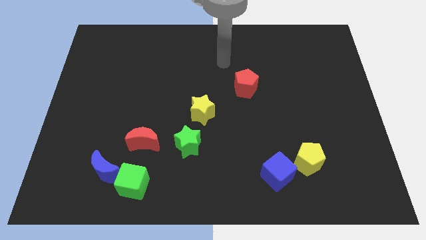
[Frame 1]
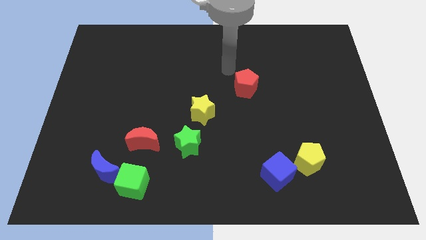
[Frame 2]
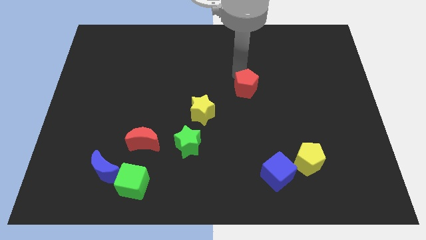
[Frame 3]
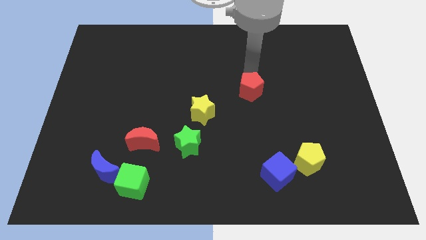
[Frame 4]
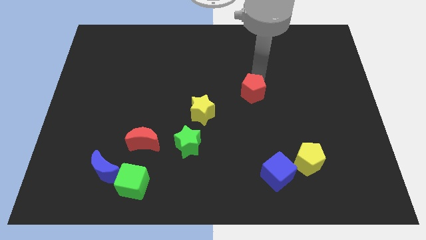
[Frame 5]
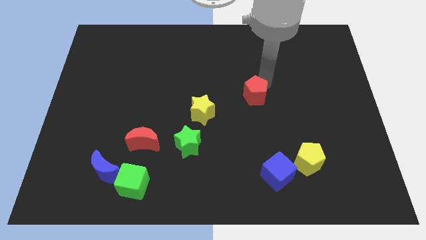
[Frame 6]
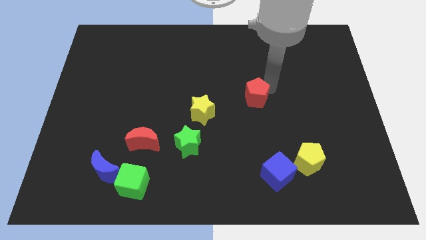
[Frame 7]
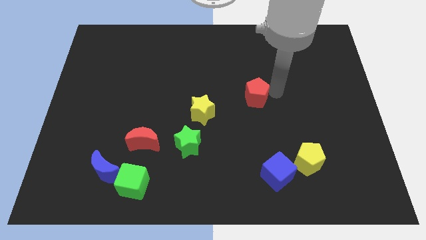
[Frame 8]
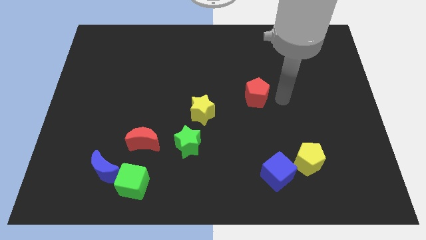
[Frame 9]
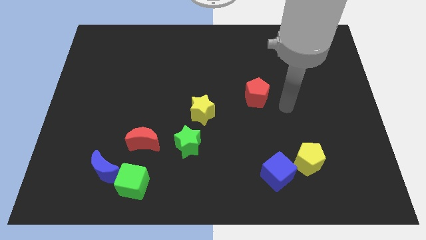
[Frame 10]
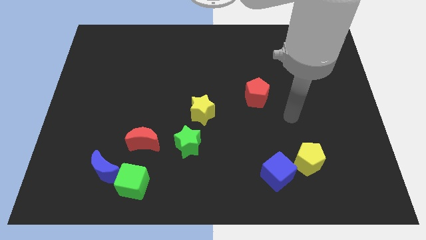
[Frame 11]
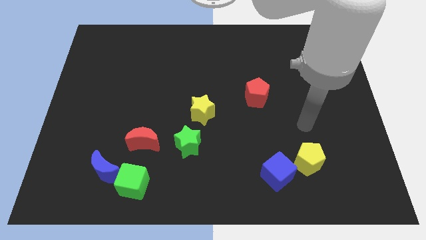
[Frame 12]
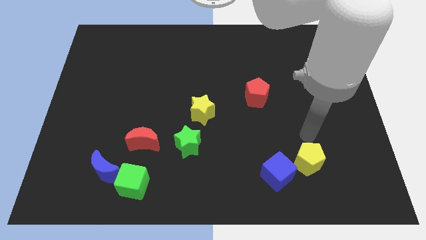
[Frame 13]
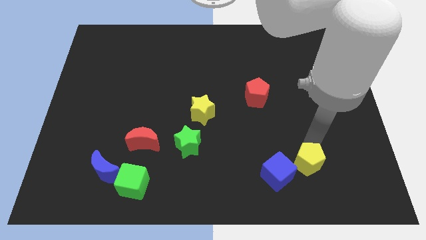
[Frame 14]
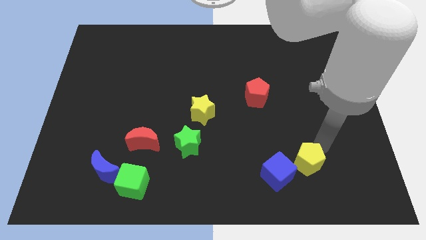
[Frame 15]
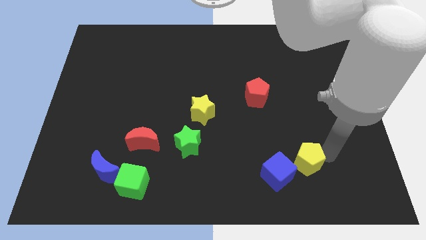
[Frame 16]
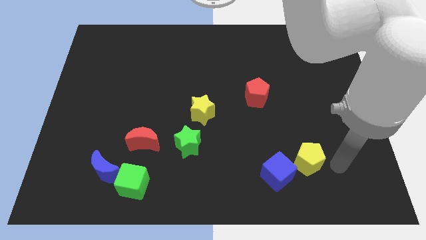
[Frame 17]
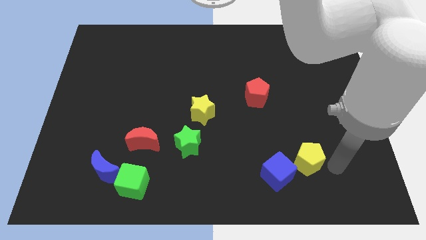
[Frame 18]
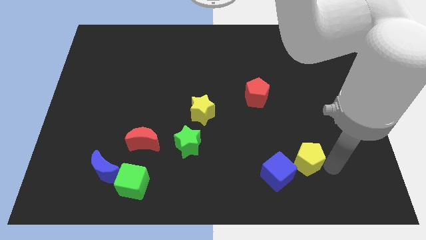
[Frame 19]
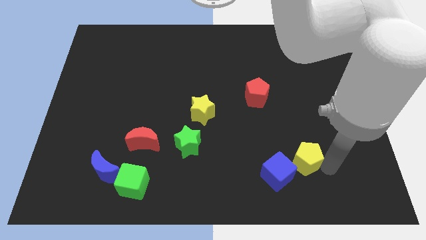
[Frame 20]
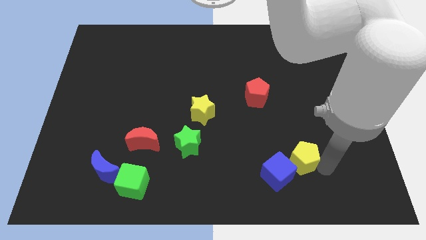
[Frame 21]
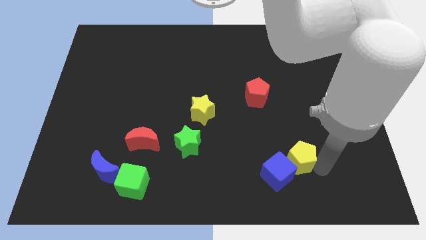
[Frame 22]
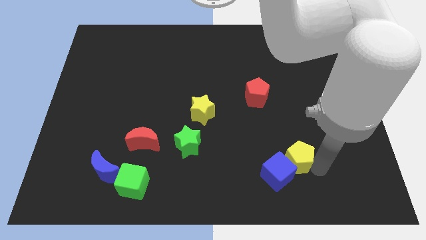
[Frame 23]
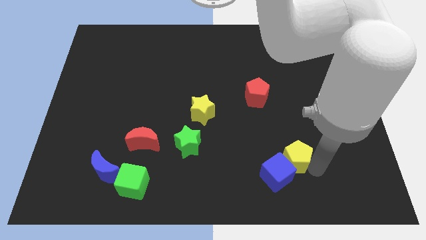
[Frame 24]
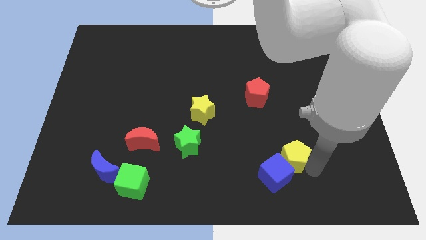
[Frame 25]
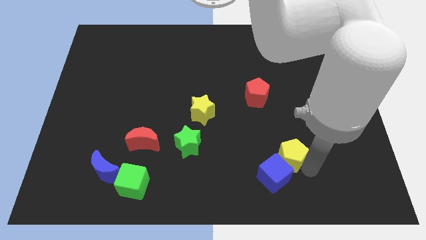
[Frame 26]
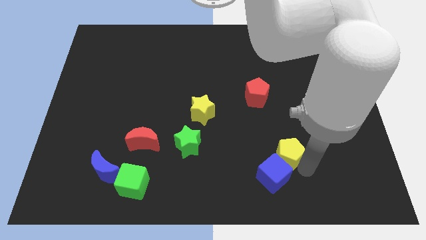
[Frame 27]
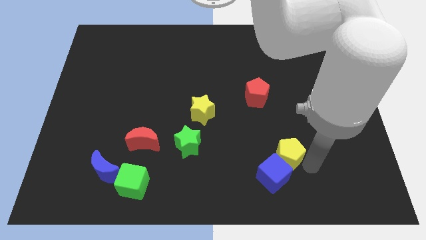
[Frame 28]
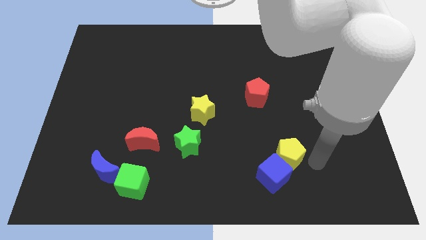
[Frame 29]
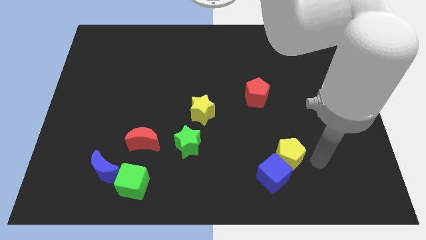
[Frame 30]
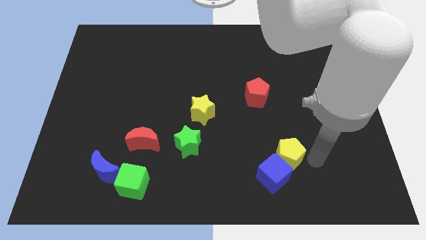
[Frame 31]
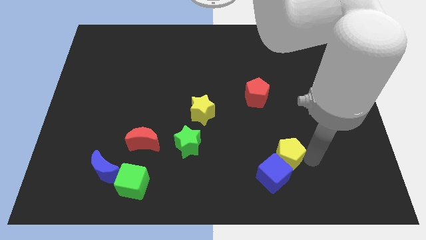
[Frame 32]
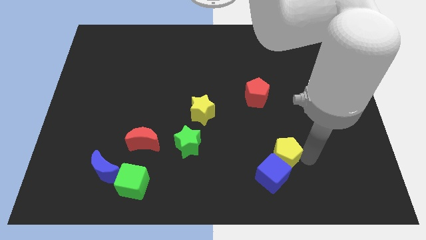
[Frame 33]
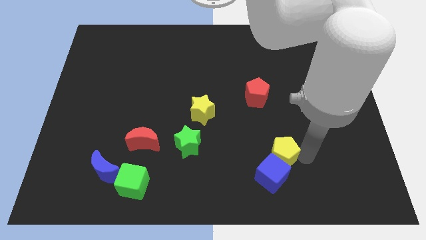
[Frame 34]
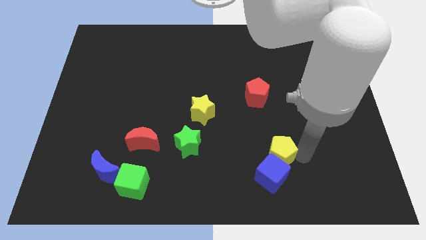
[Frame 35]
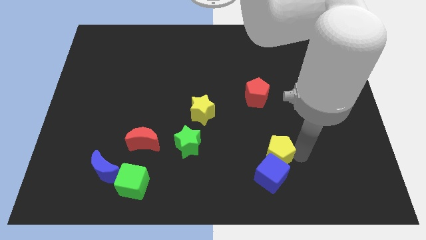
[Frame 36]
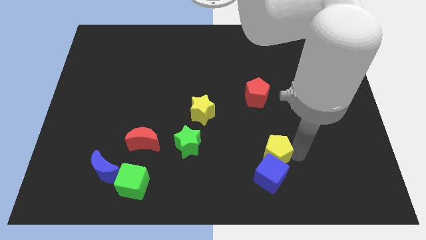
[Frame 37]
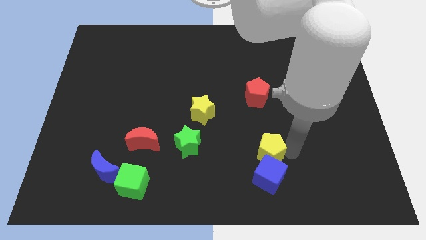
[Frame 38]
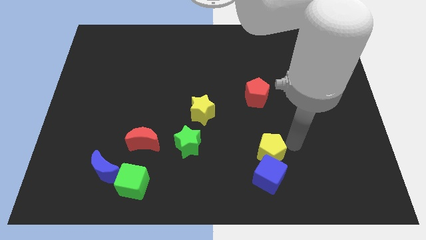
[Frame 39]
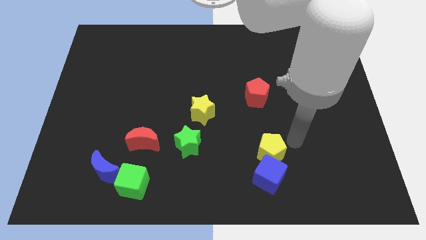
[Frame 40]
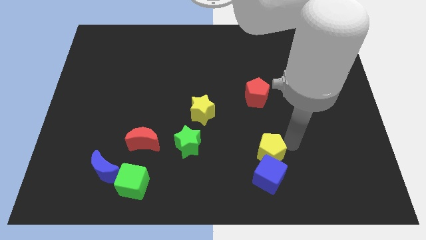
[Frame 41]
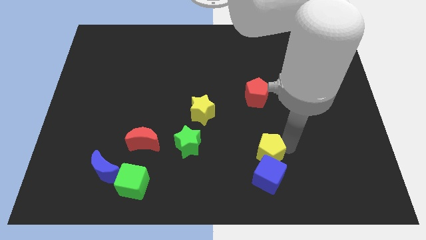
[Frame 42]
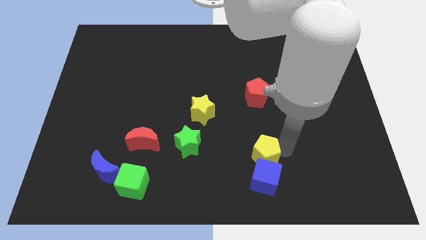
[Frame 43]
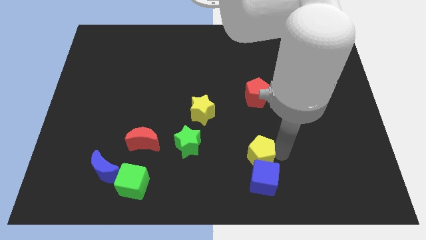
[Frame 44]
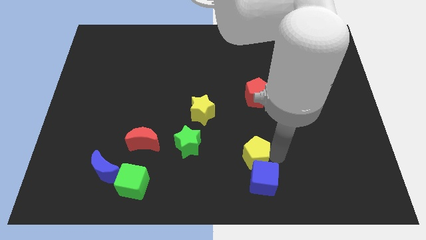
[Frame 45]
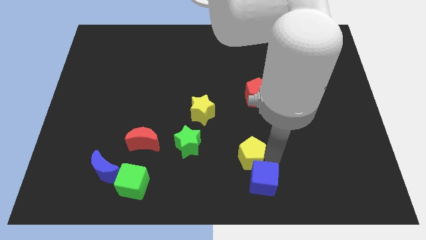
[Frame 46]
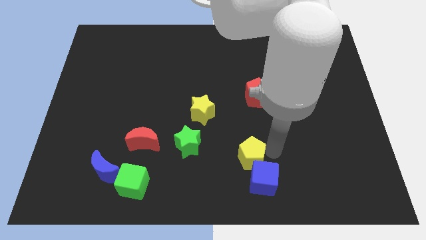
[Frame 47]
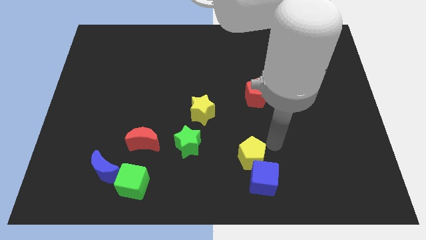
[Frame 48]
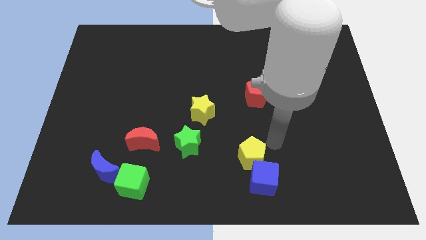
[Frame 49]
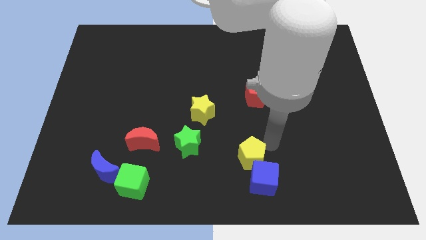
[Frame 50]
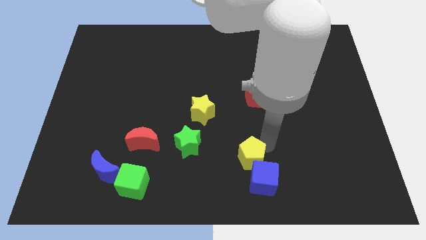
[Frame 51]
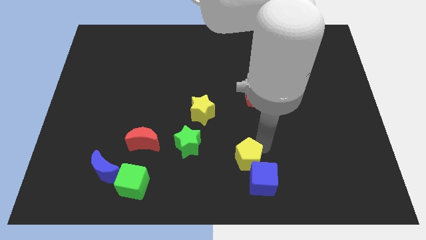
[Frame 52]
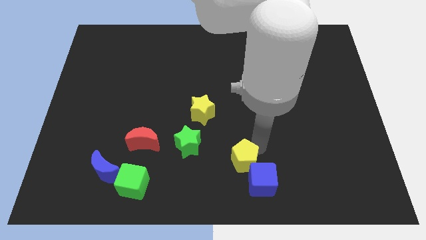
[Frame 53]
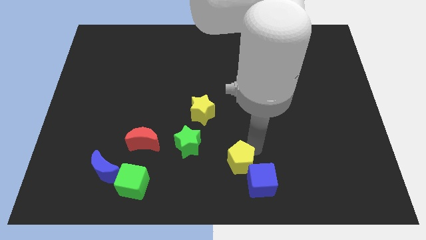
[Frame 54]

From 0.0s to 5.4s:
put the yellow pentagon just left of the blue cube

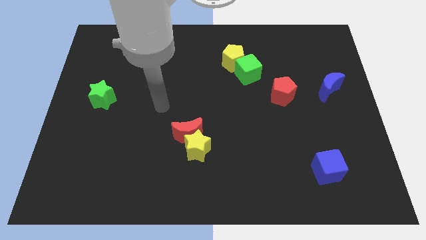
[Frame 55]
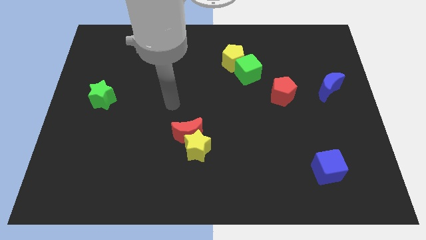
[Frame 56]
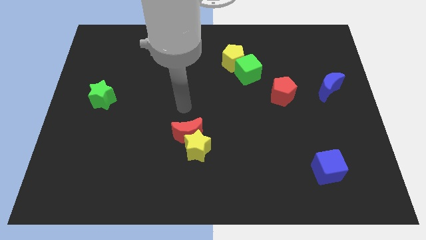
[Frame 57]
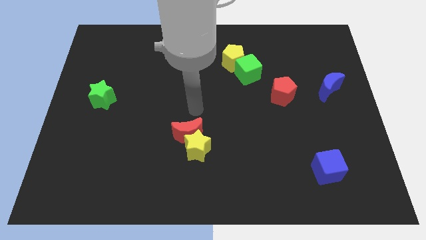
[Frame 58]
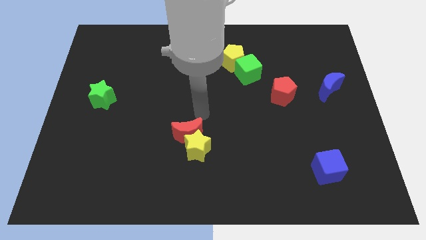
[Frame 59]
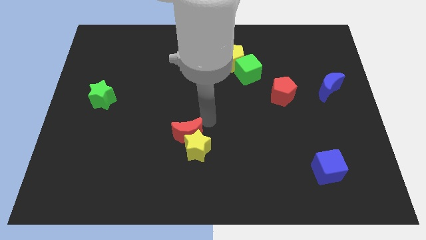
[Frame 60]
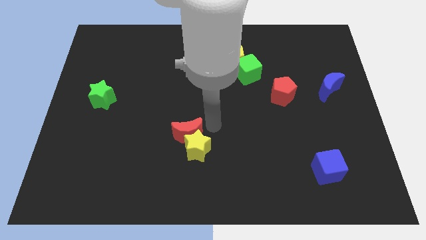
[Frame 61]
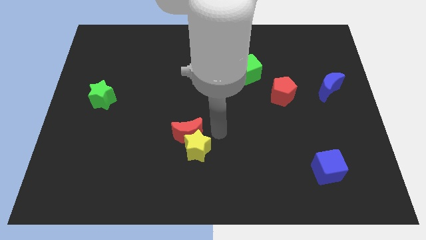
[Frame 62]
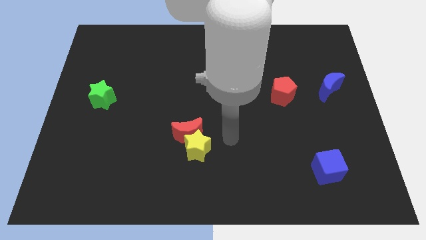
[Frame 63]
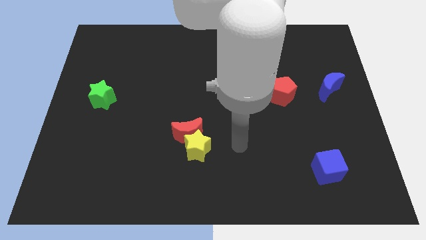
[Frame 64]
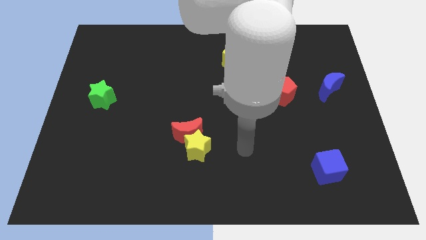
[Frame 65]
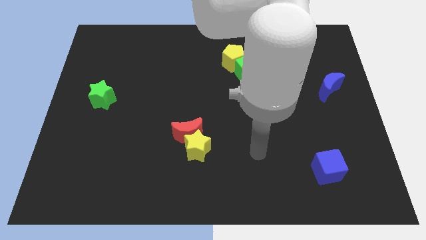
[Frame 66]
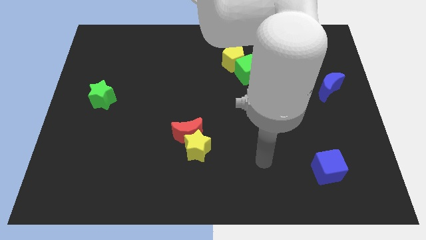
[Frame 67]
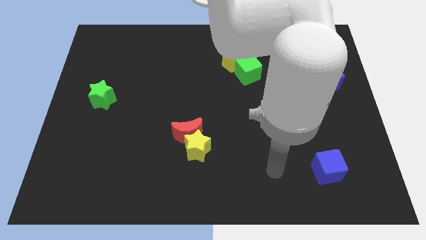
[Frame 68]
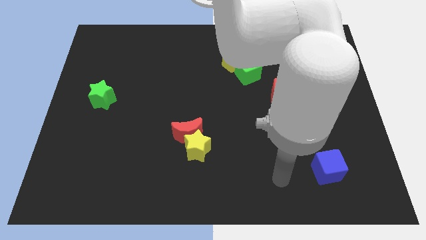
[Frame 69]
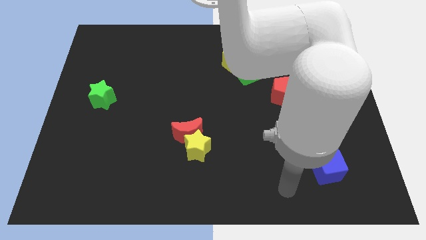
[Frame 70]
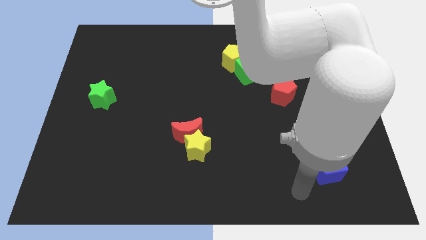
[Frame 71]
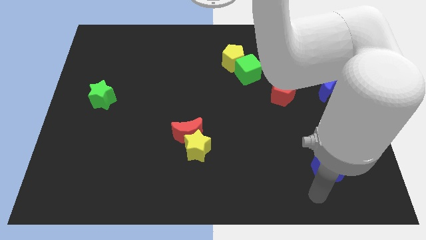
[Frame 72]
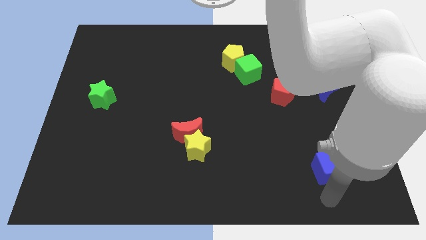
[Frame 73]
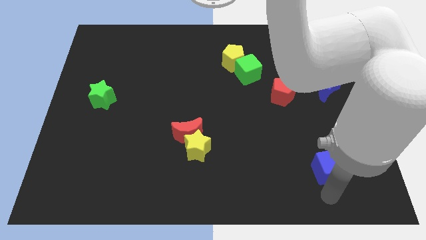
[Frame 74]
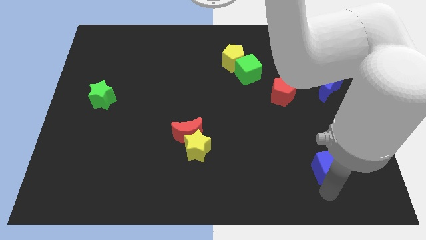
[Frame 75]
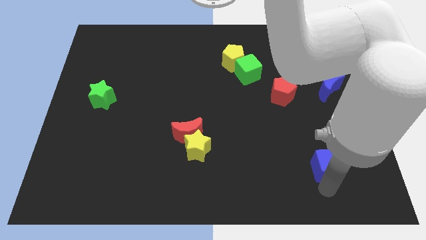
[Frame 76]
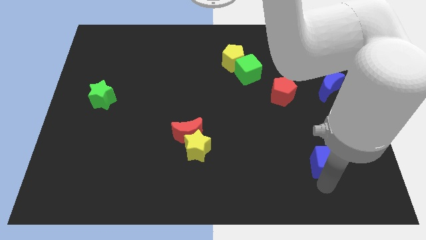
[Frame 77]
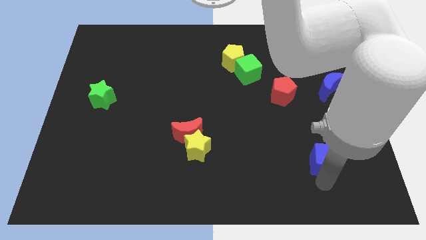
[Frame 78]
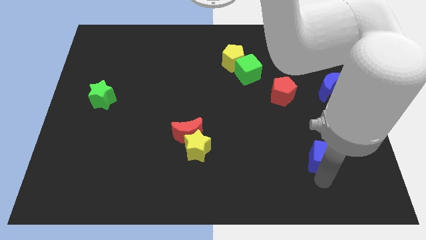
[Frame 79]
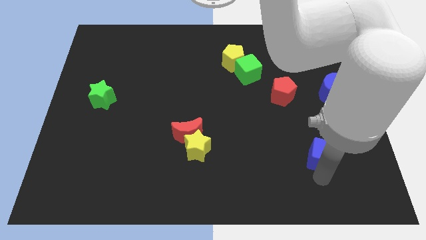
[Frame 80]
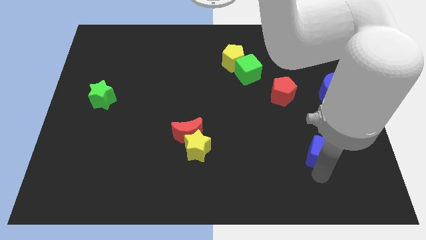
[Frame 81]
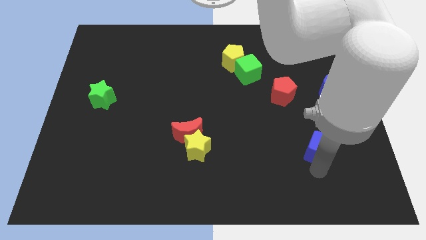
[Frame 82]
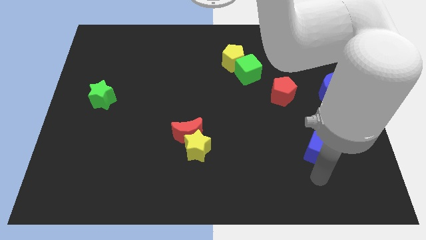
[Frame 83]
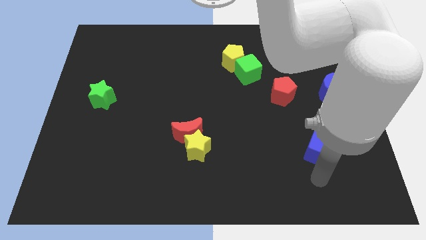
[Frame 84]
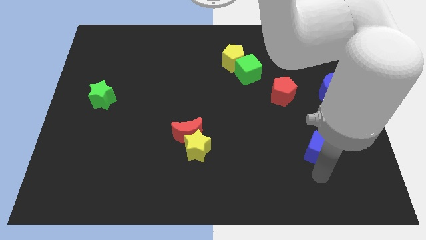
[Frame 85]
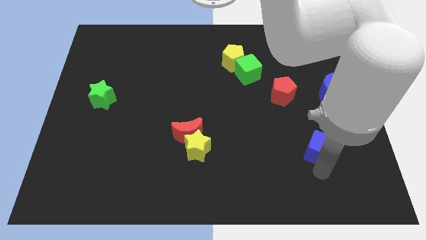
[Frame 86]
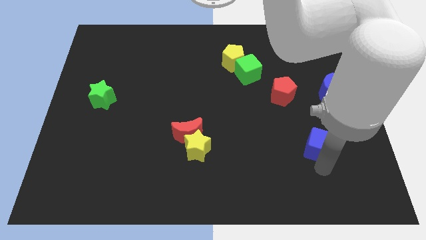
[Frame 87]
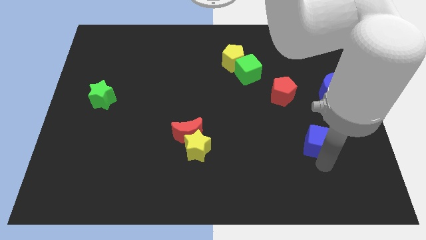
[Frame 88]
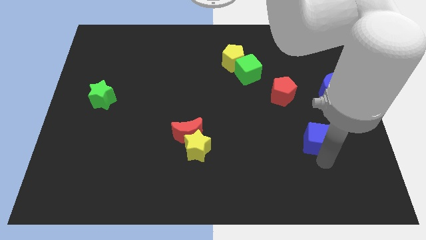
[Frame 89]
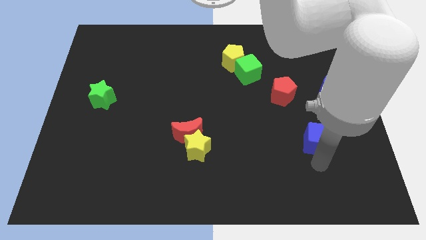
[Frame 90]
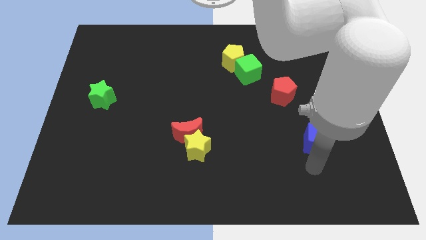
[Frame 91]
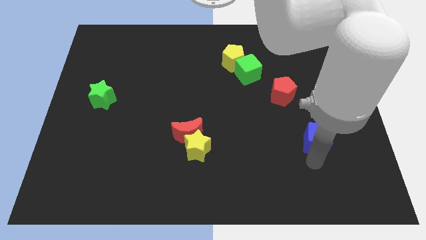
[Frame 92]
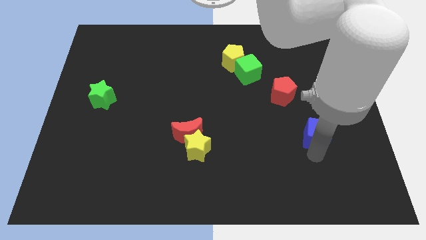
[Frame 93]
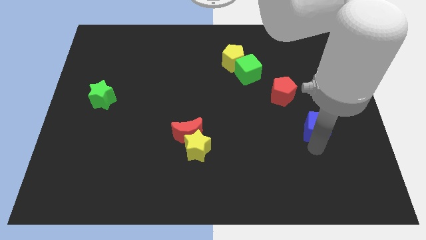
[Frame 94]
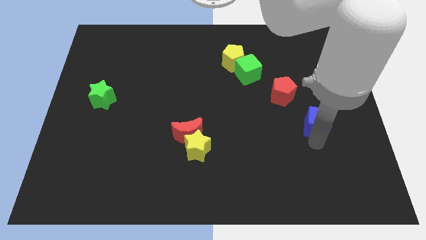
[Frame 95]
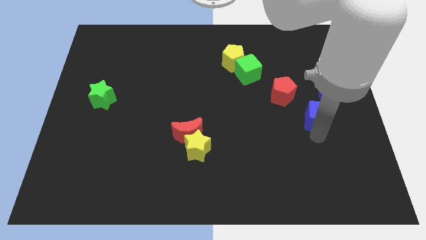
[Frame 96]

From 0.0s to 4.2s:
put the blue cube to the bottom left side of the blue moon
